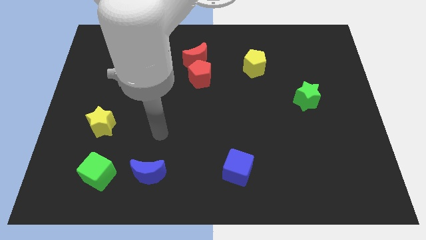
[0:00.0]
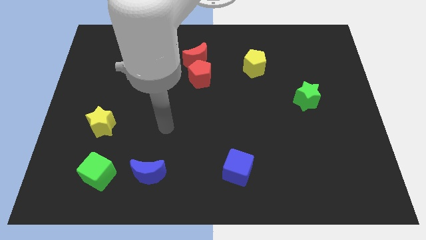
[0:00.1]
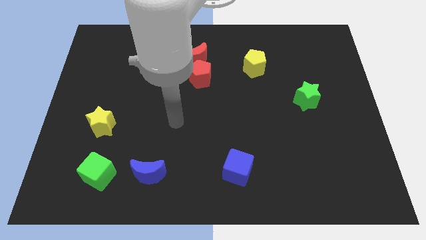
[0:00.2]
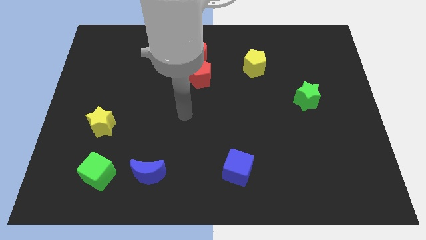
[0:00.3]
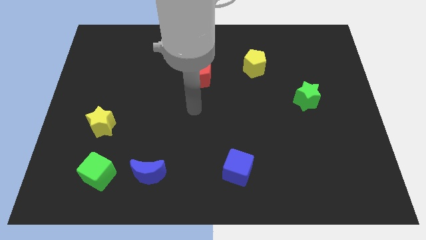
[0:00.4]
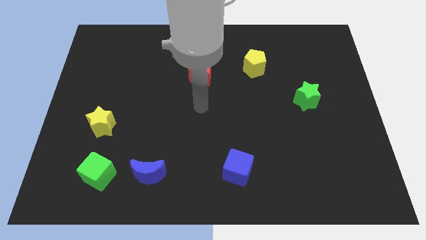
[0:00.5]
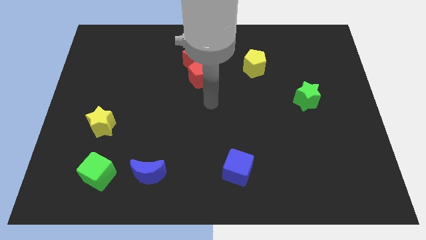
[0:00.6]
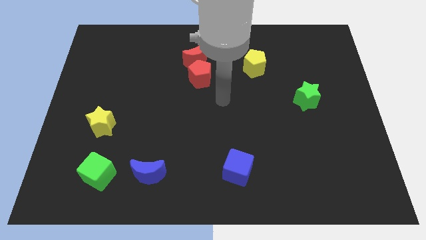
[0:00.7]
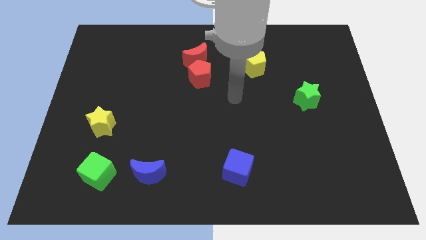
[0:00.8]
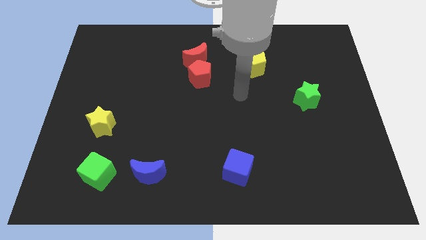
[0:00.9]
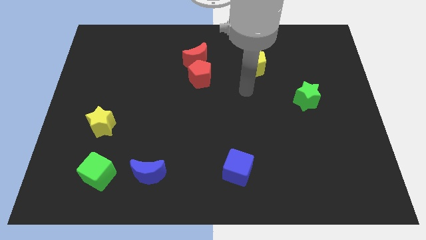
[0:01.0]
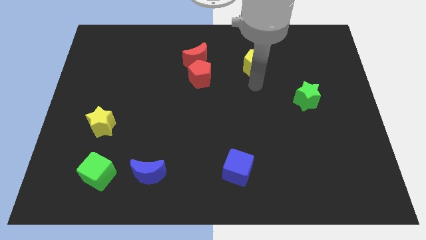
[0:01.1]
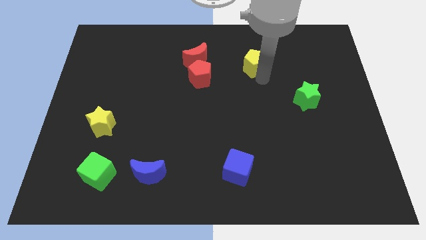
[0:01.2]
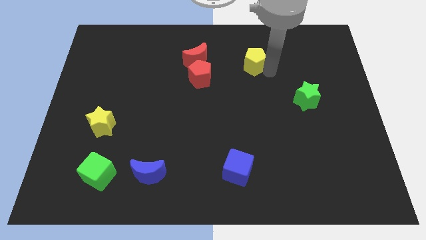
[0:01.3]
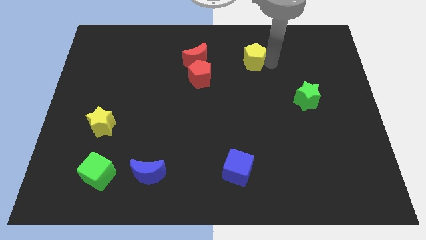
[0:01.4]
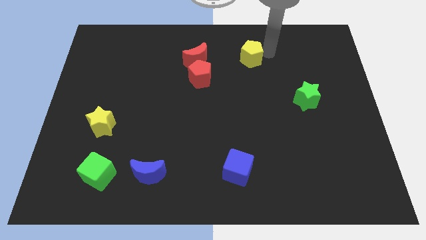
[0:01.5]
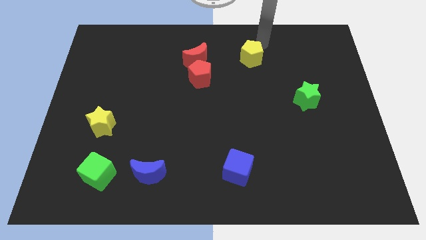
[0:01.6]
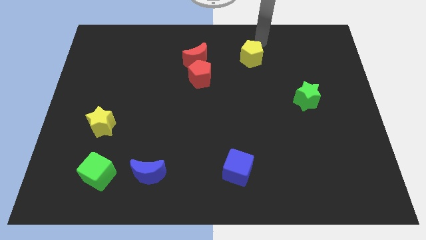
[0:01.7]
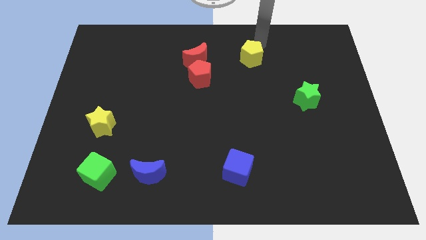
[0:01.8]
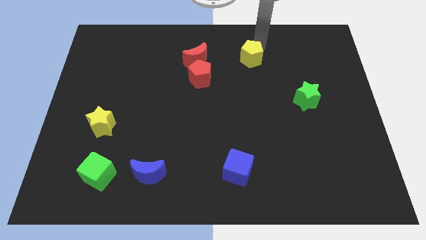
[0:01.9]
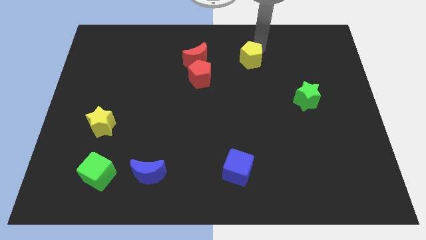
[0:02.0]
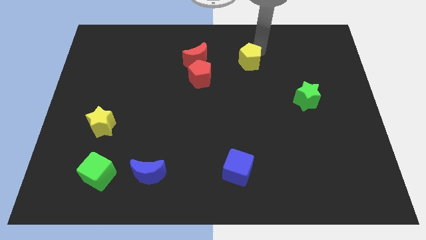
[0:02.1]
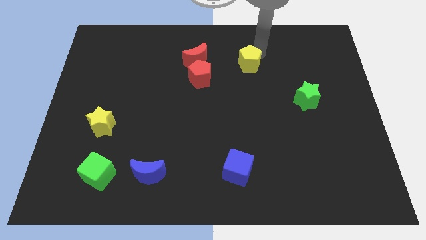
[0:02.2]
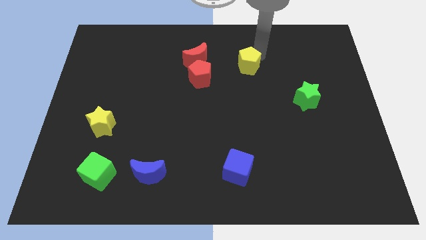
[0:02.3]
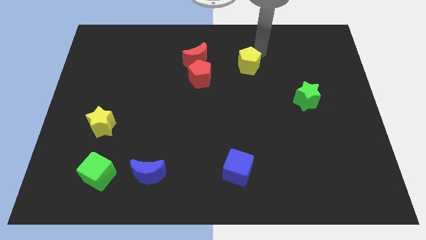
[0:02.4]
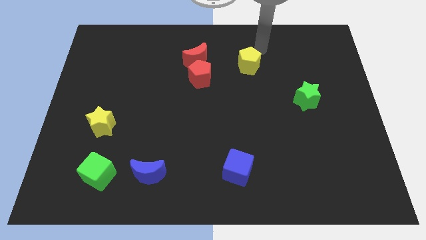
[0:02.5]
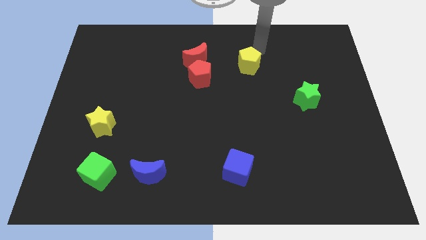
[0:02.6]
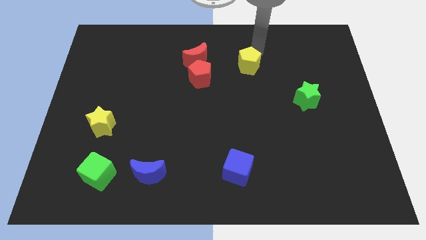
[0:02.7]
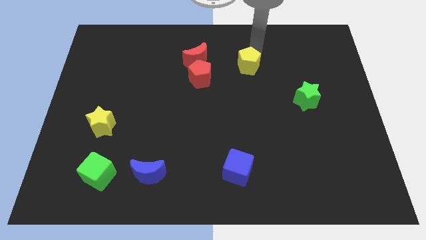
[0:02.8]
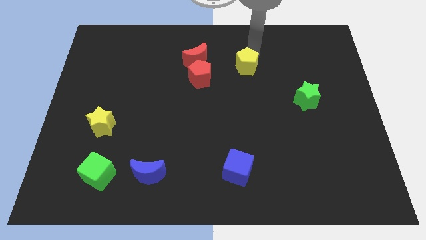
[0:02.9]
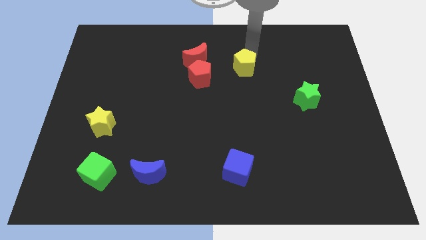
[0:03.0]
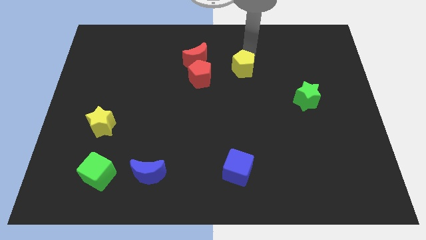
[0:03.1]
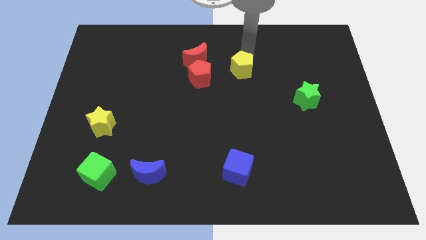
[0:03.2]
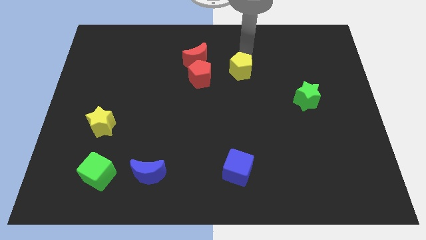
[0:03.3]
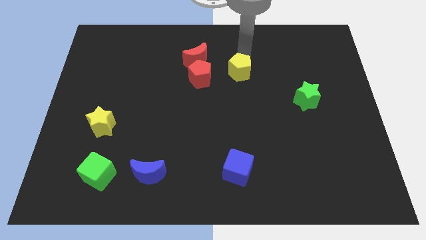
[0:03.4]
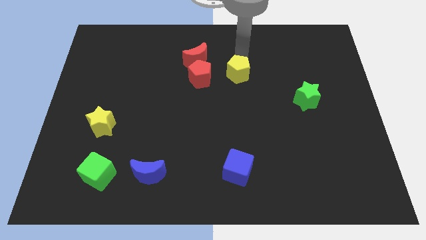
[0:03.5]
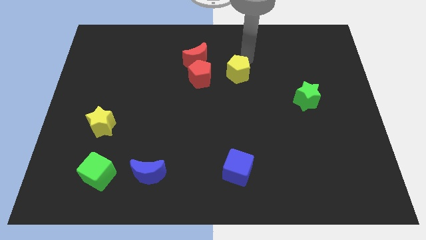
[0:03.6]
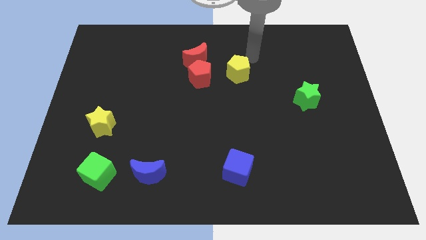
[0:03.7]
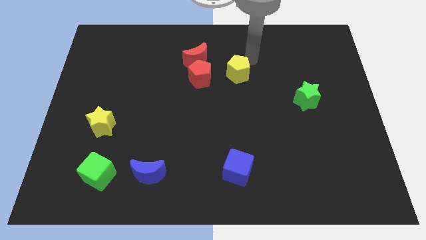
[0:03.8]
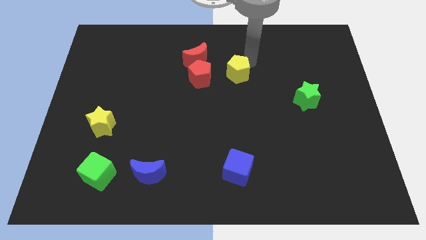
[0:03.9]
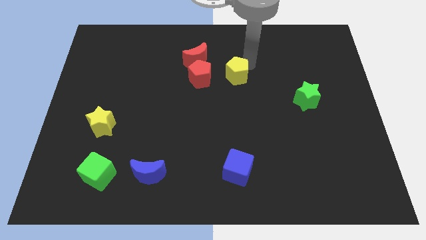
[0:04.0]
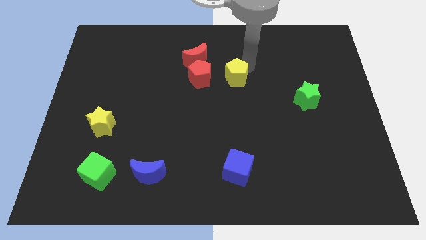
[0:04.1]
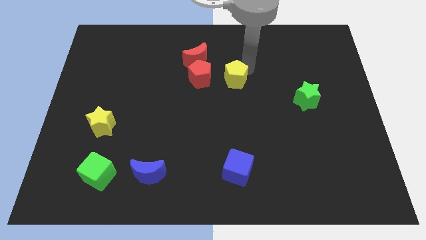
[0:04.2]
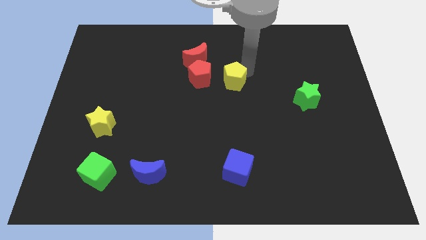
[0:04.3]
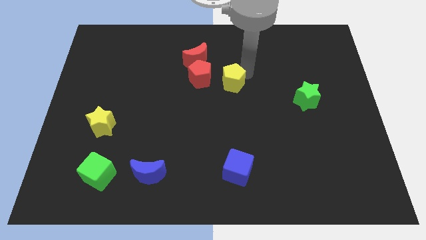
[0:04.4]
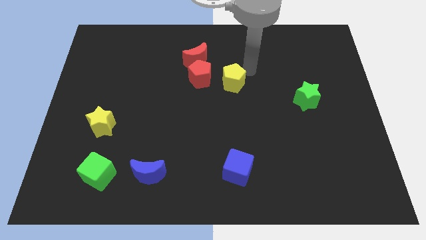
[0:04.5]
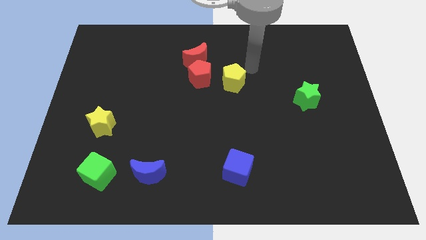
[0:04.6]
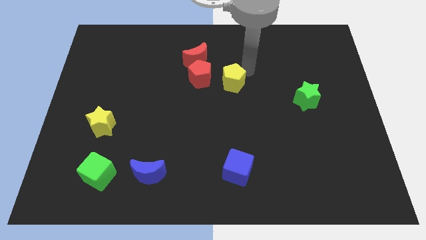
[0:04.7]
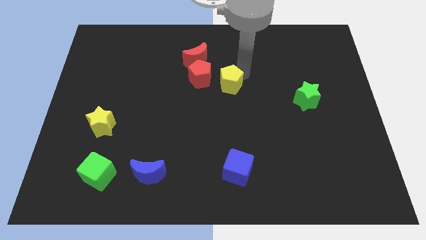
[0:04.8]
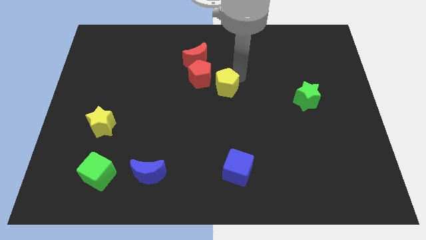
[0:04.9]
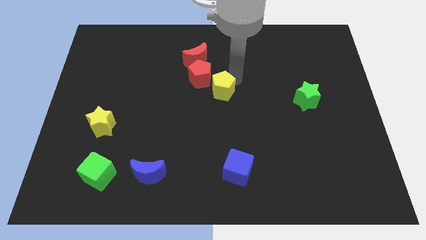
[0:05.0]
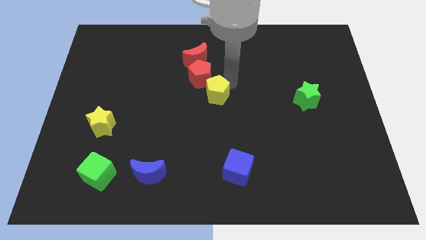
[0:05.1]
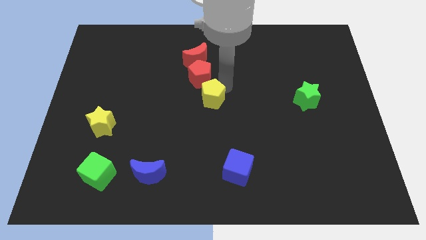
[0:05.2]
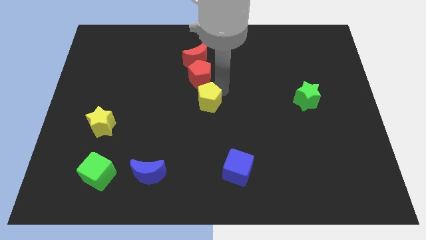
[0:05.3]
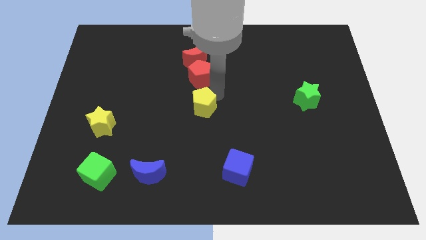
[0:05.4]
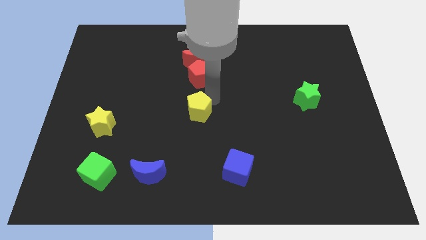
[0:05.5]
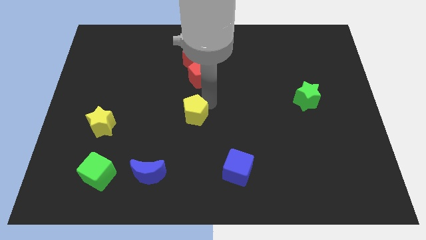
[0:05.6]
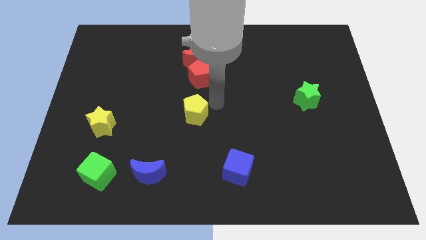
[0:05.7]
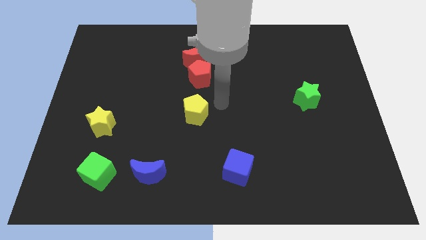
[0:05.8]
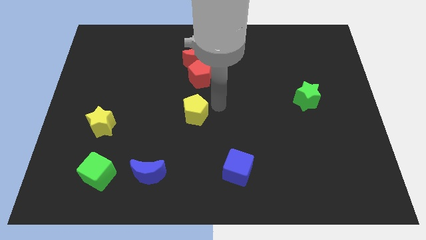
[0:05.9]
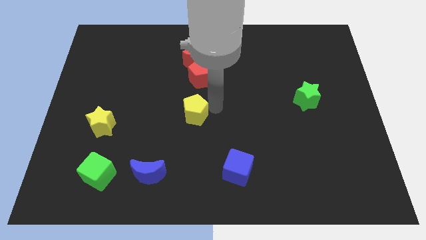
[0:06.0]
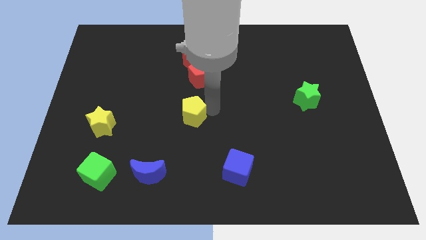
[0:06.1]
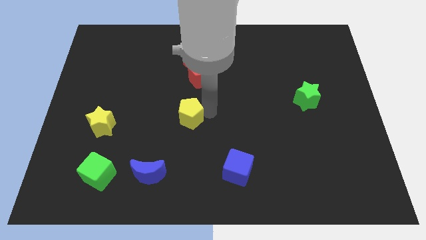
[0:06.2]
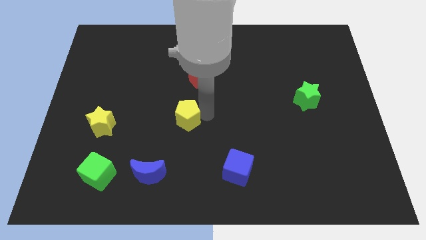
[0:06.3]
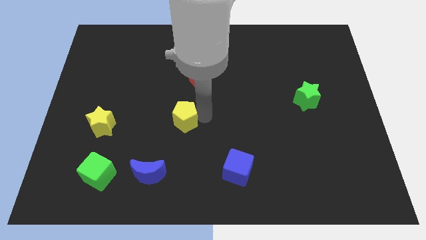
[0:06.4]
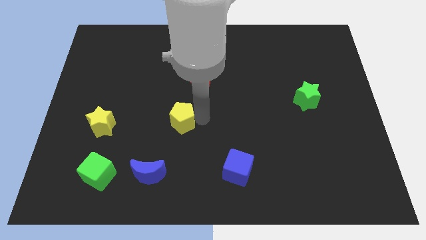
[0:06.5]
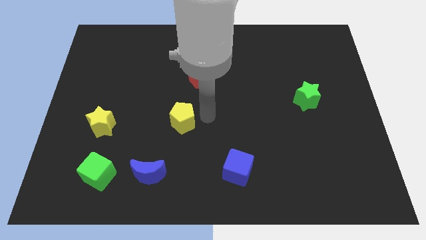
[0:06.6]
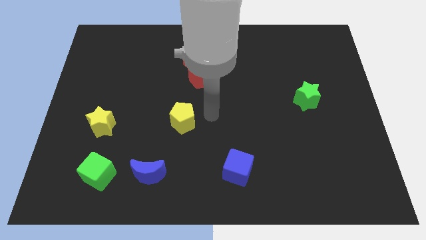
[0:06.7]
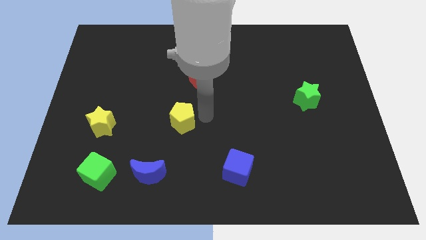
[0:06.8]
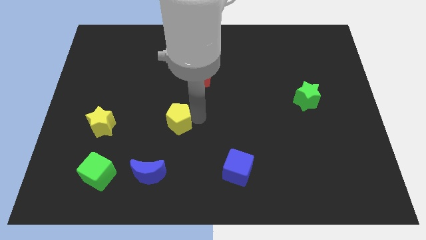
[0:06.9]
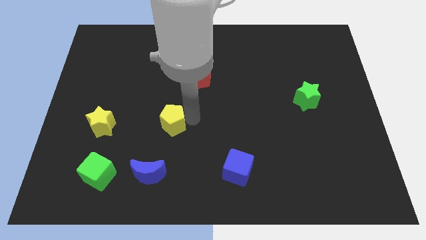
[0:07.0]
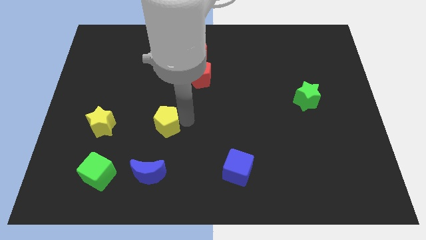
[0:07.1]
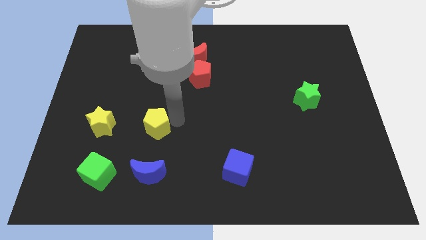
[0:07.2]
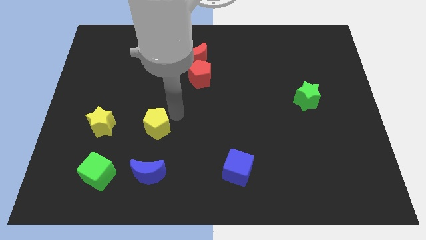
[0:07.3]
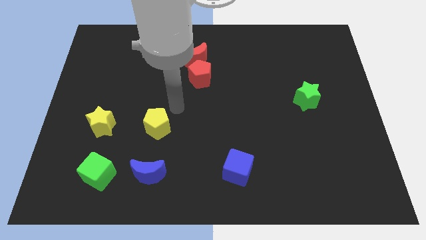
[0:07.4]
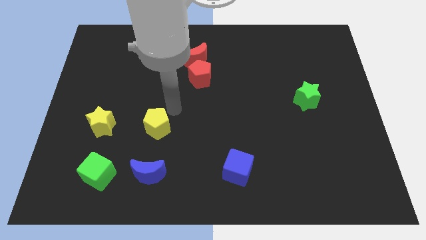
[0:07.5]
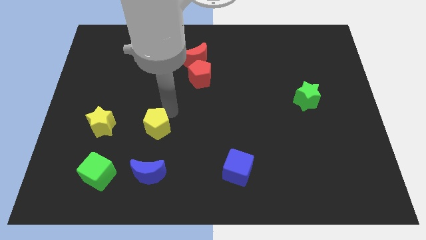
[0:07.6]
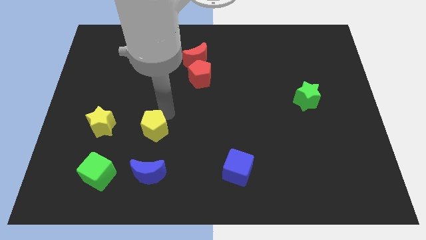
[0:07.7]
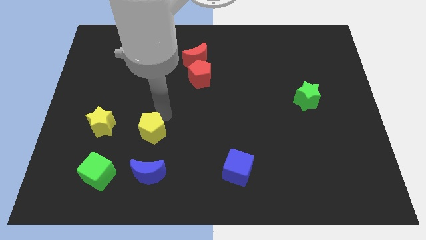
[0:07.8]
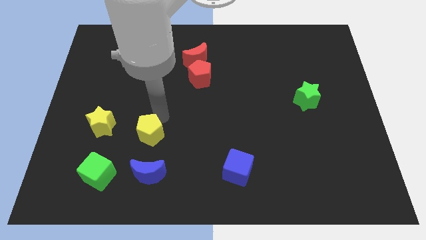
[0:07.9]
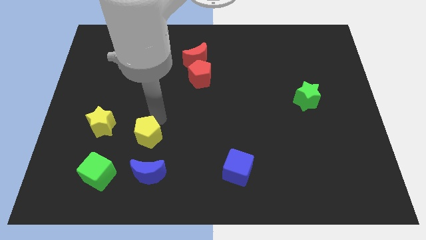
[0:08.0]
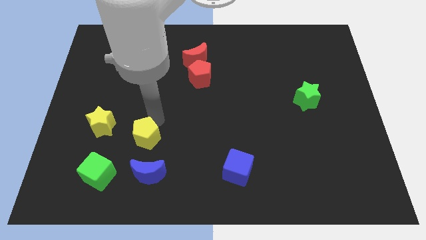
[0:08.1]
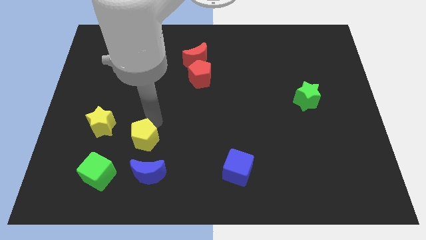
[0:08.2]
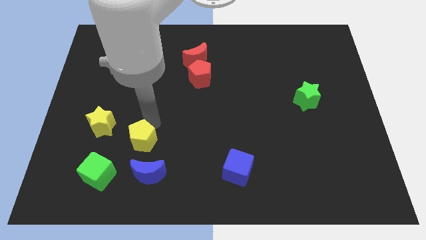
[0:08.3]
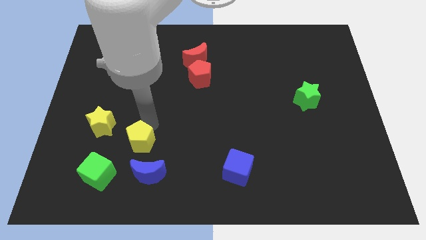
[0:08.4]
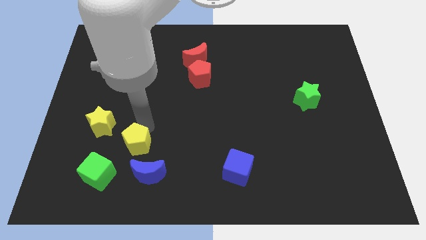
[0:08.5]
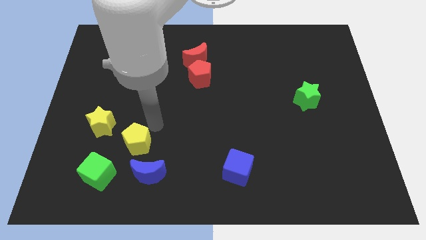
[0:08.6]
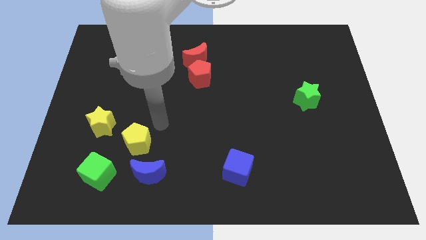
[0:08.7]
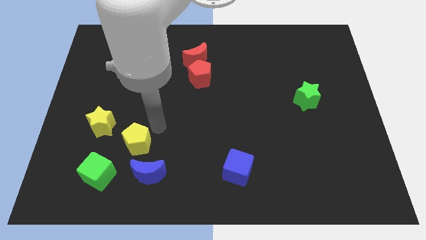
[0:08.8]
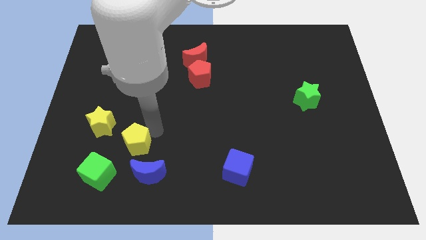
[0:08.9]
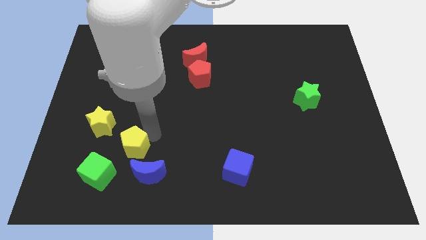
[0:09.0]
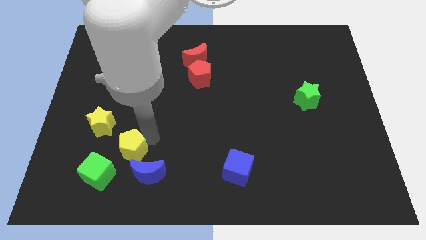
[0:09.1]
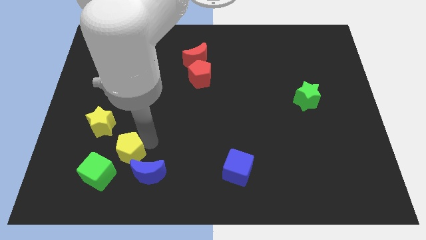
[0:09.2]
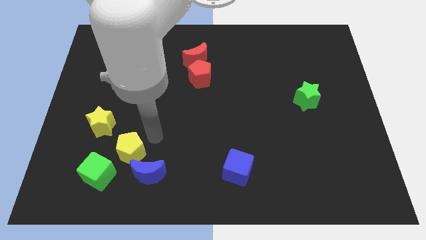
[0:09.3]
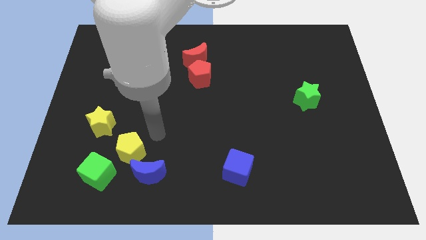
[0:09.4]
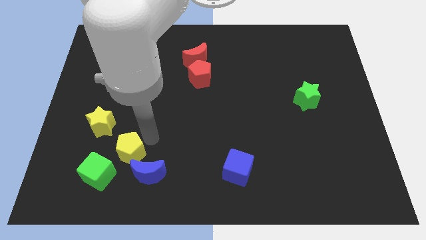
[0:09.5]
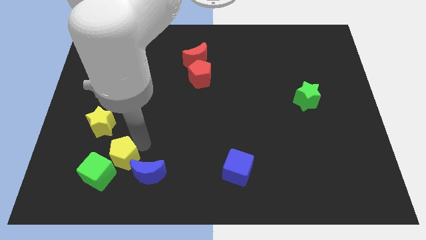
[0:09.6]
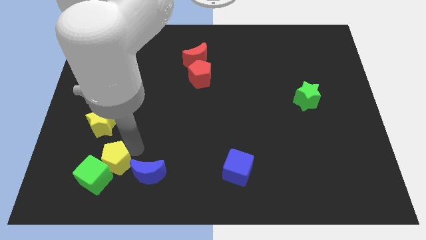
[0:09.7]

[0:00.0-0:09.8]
put the yellow pentagon to the green cube
